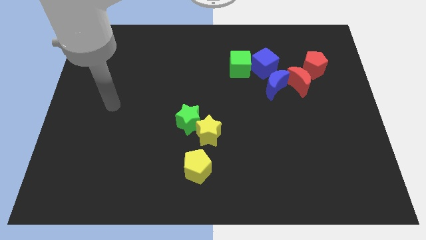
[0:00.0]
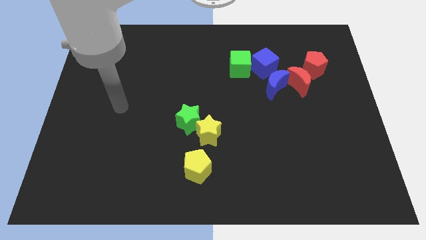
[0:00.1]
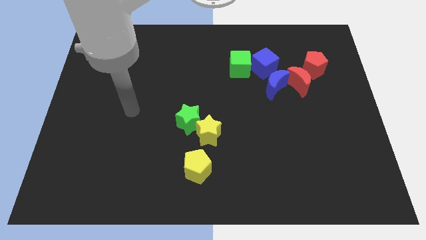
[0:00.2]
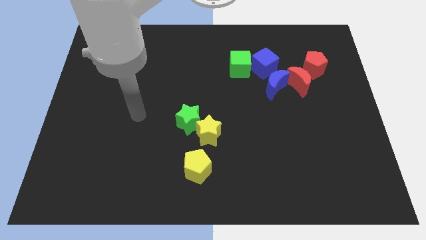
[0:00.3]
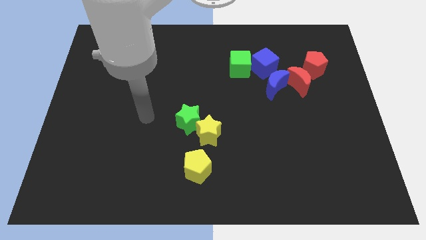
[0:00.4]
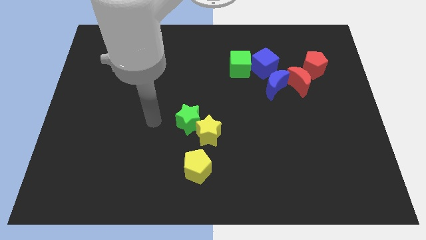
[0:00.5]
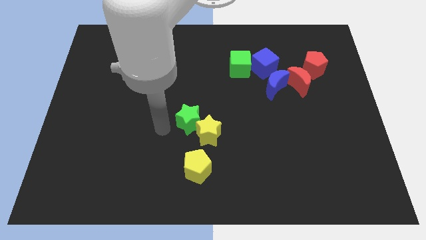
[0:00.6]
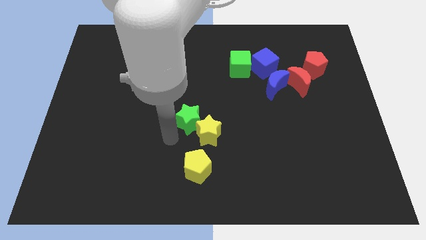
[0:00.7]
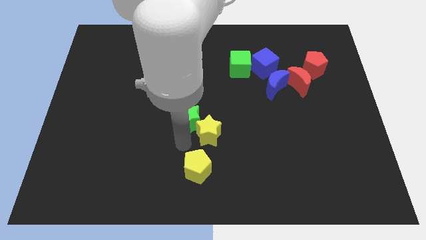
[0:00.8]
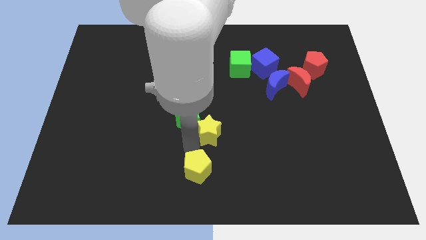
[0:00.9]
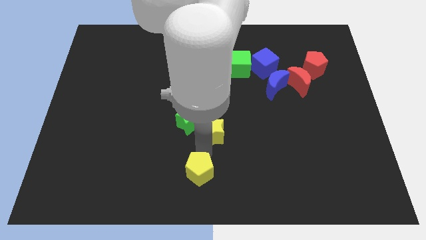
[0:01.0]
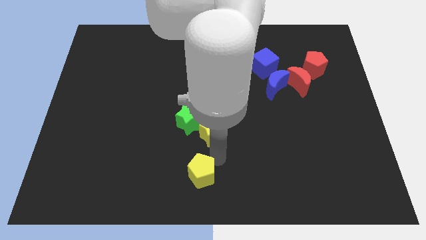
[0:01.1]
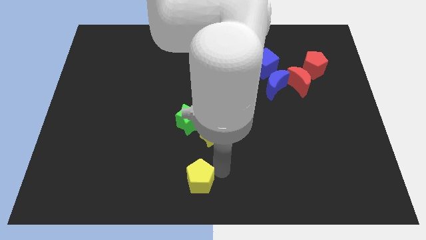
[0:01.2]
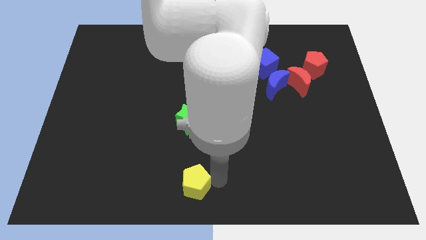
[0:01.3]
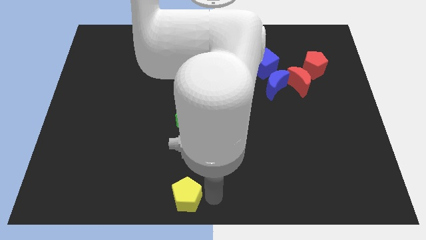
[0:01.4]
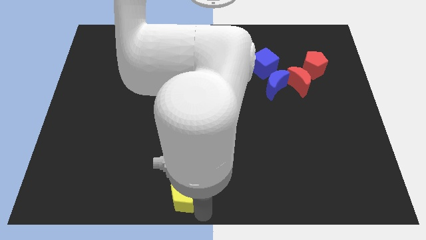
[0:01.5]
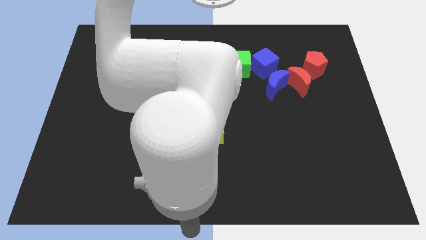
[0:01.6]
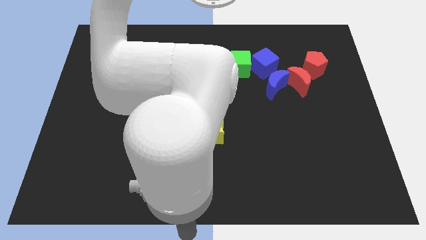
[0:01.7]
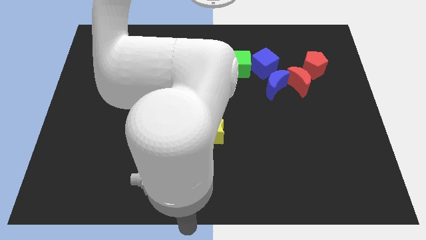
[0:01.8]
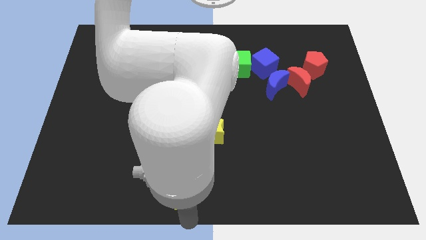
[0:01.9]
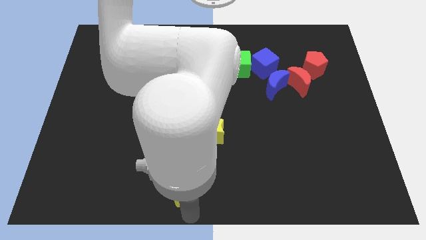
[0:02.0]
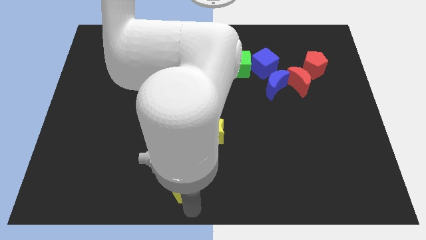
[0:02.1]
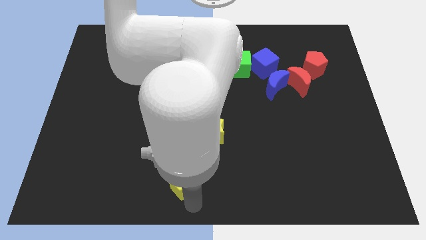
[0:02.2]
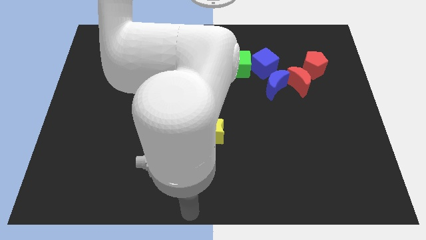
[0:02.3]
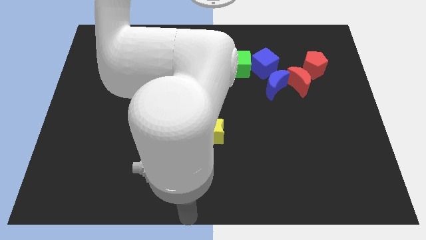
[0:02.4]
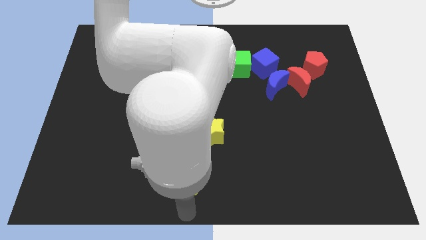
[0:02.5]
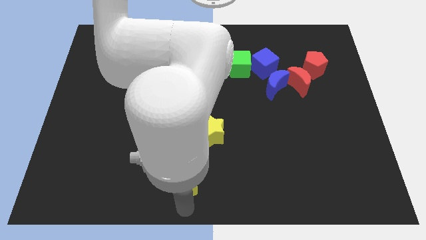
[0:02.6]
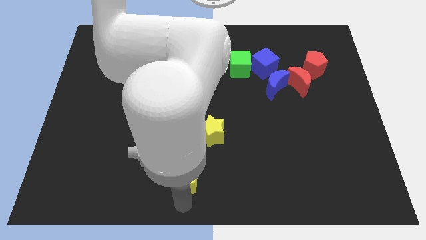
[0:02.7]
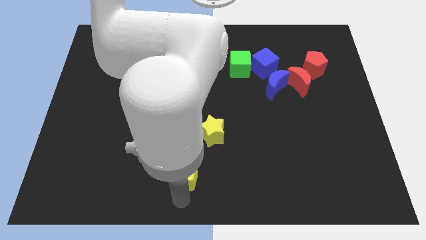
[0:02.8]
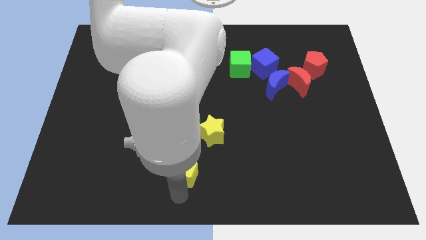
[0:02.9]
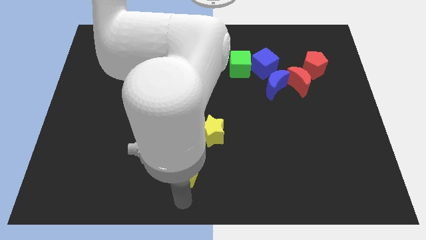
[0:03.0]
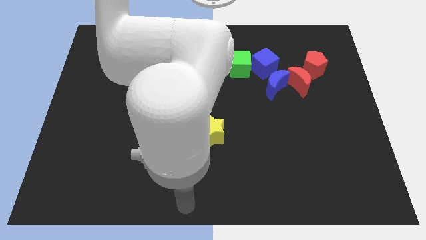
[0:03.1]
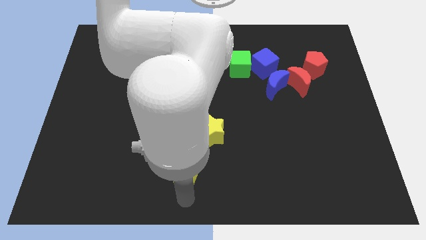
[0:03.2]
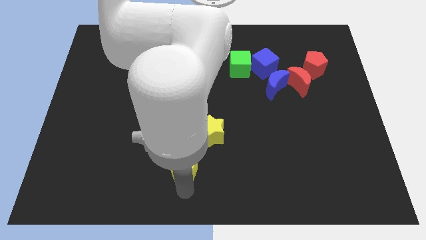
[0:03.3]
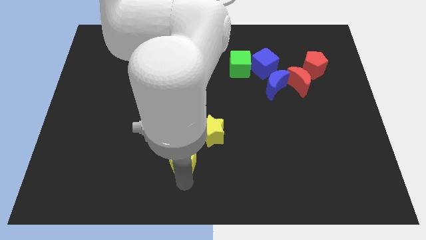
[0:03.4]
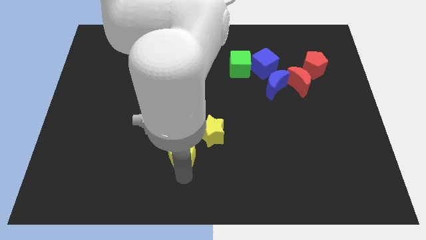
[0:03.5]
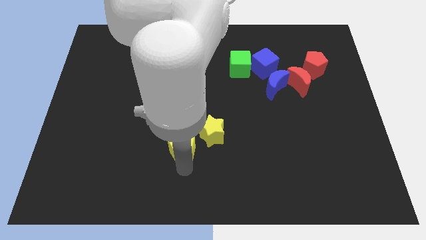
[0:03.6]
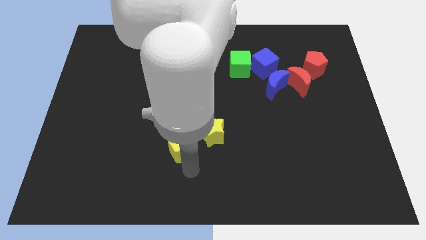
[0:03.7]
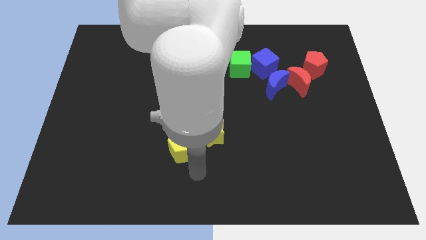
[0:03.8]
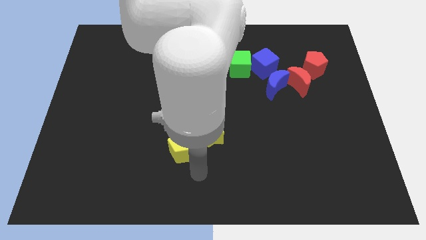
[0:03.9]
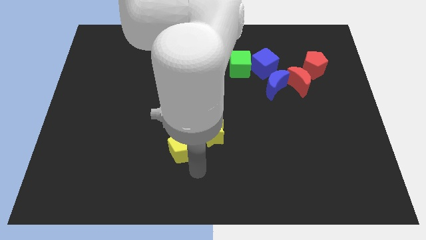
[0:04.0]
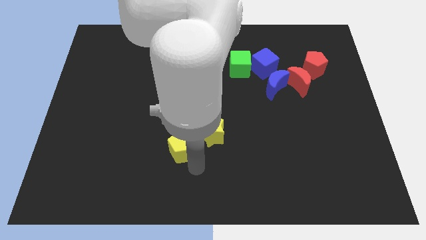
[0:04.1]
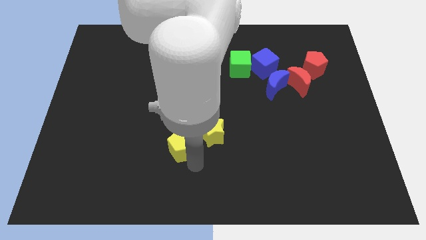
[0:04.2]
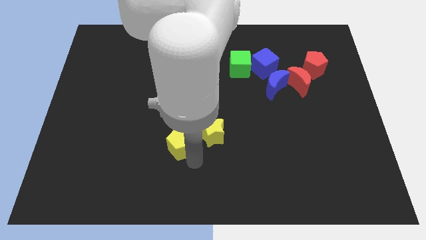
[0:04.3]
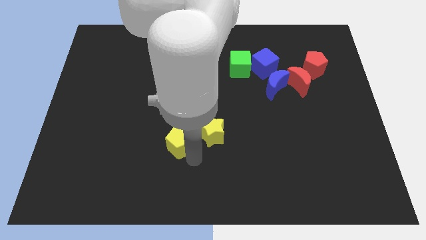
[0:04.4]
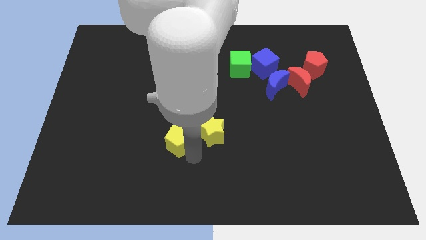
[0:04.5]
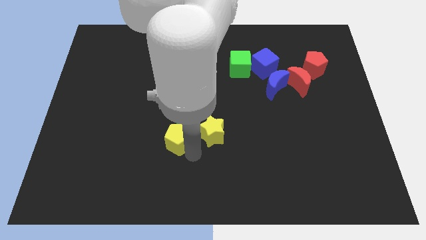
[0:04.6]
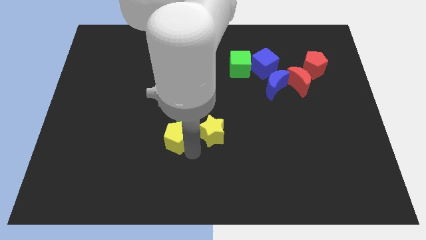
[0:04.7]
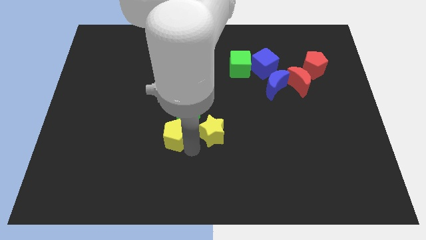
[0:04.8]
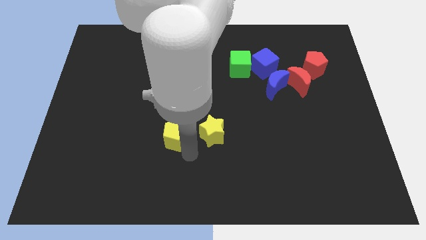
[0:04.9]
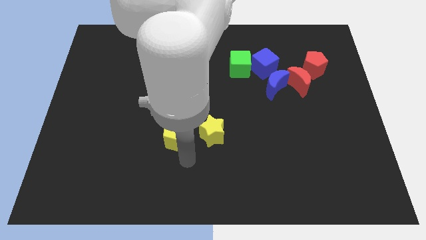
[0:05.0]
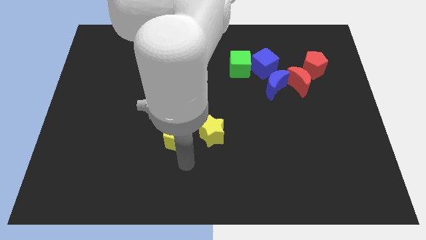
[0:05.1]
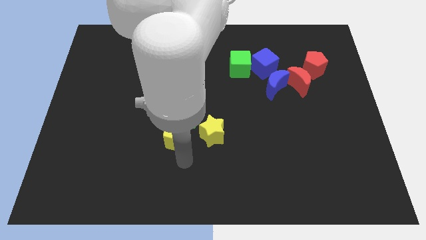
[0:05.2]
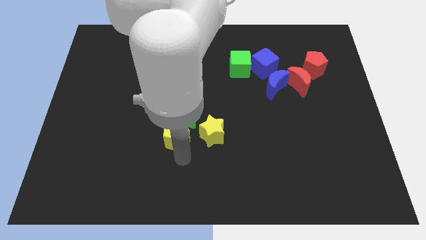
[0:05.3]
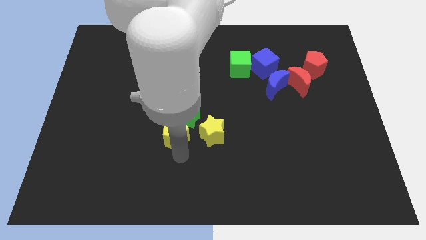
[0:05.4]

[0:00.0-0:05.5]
move the yellow pentagon a little bit upwards

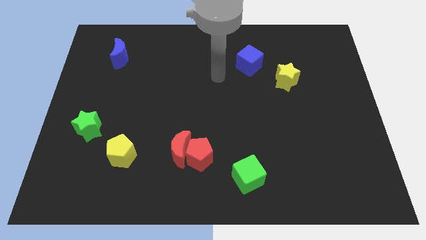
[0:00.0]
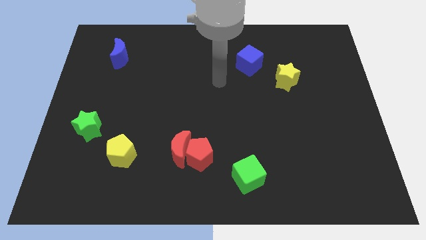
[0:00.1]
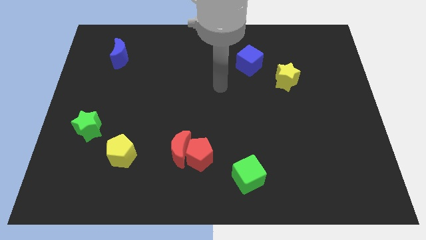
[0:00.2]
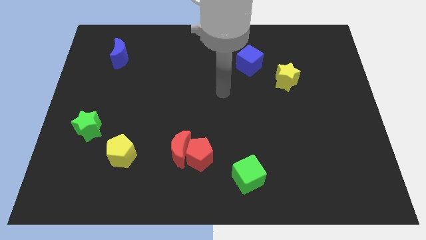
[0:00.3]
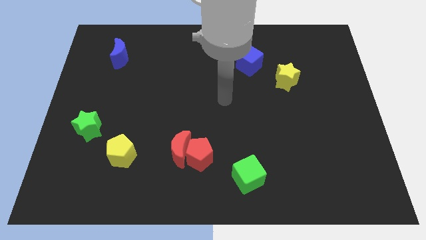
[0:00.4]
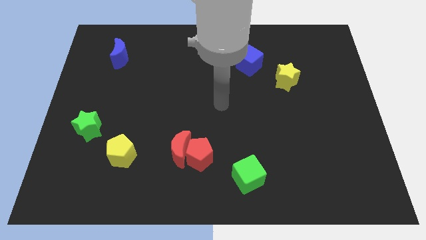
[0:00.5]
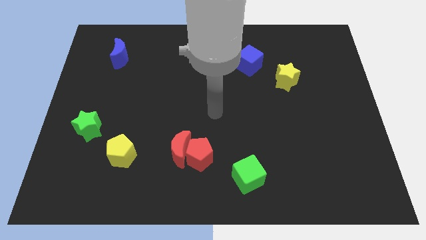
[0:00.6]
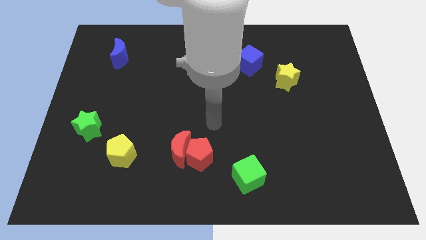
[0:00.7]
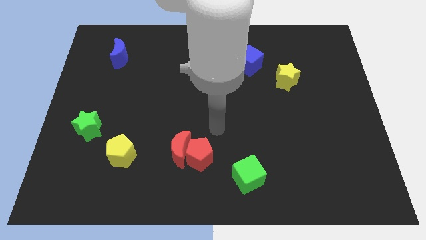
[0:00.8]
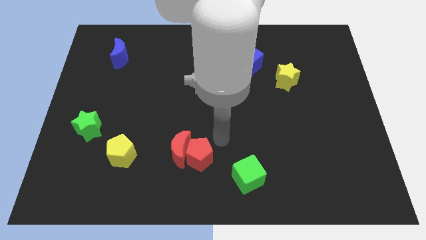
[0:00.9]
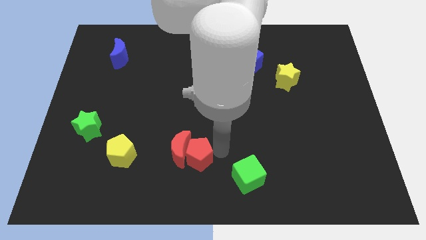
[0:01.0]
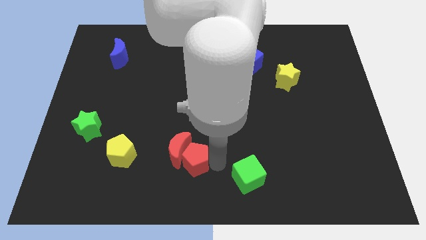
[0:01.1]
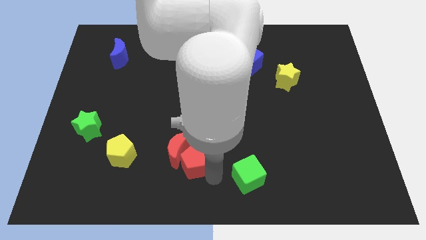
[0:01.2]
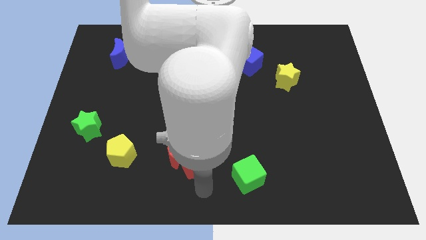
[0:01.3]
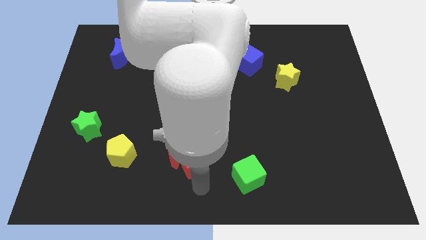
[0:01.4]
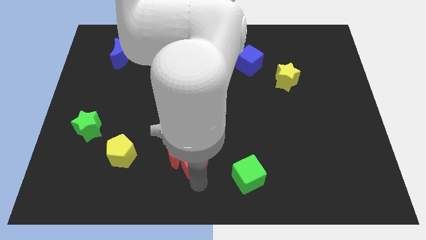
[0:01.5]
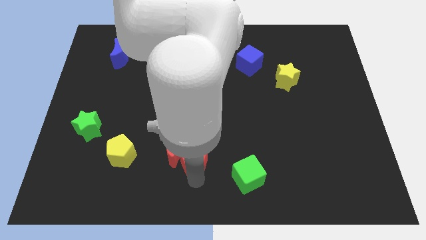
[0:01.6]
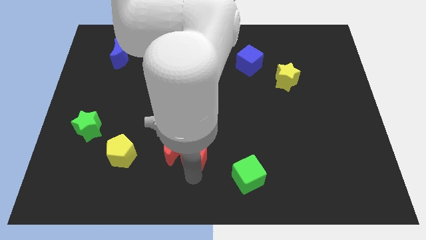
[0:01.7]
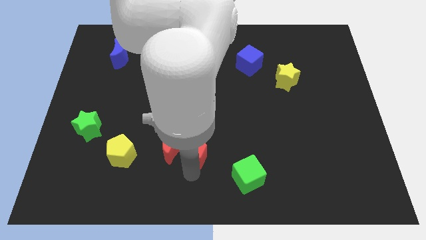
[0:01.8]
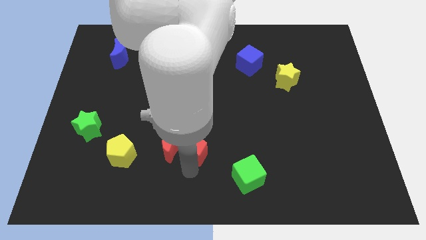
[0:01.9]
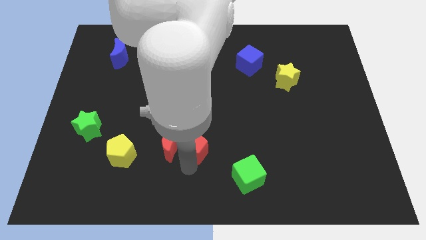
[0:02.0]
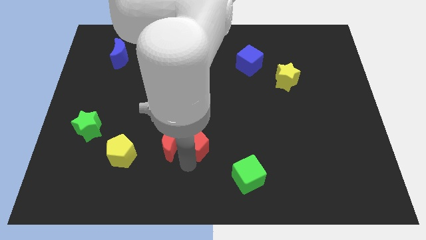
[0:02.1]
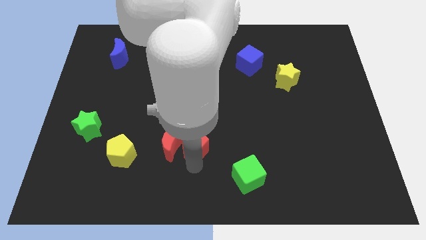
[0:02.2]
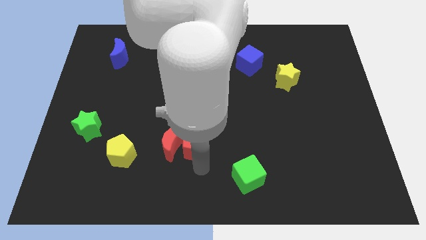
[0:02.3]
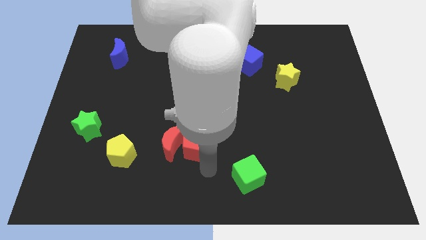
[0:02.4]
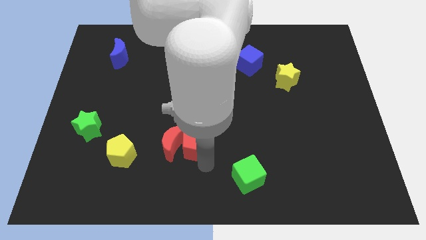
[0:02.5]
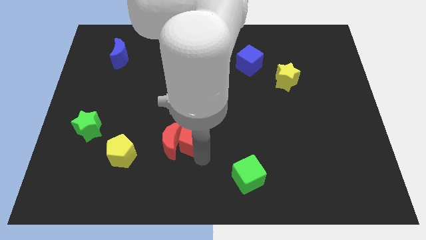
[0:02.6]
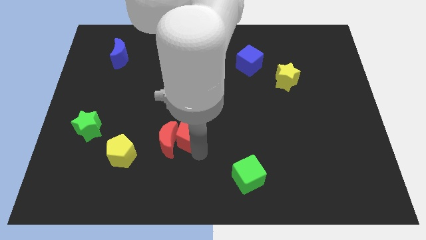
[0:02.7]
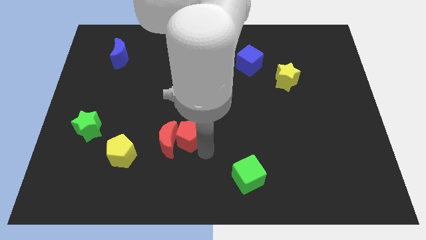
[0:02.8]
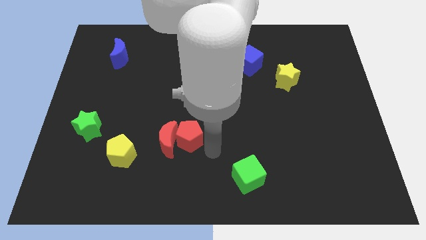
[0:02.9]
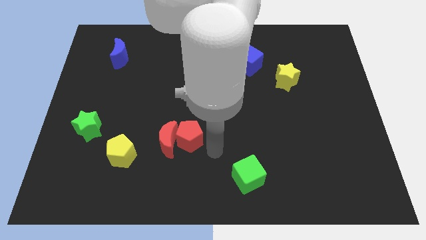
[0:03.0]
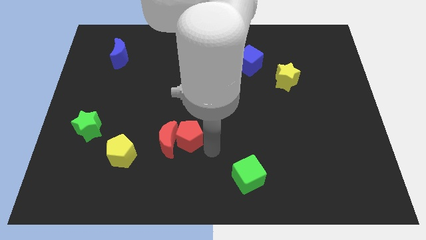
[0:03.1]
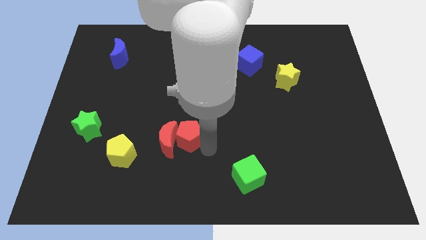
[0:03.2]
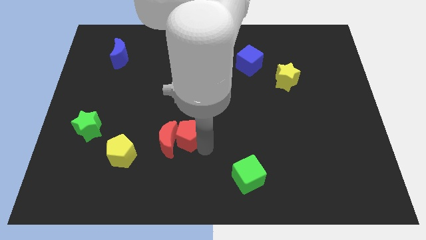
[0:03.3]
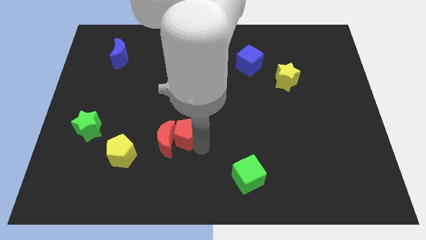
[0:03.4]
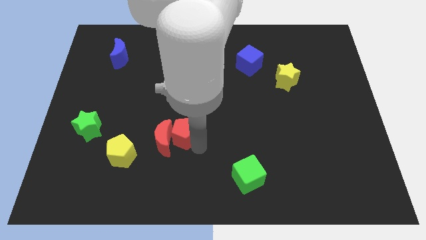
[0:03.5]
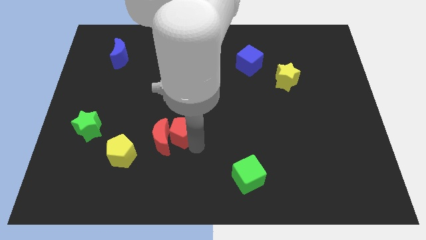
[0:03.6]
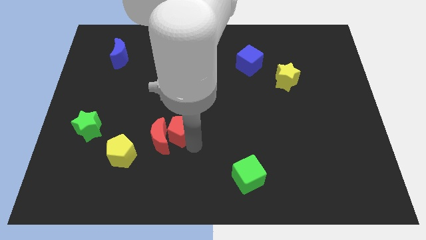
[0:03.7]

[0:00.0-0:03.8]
move the red pentagon up and left diagonally a bit
